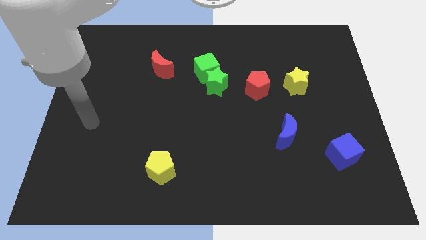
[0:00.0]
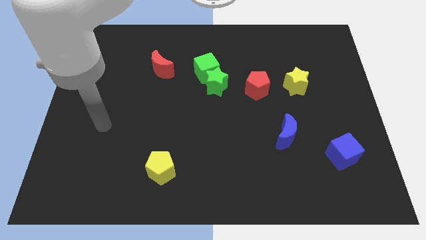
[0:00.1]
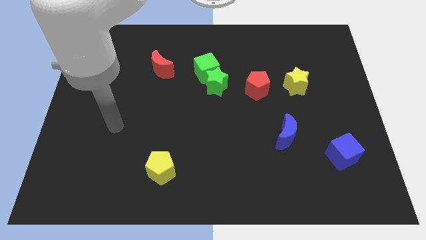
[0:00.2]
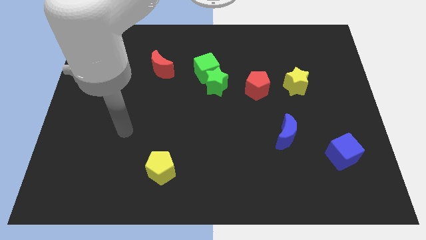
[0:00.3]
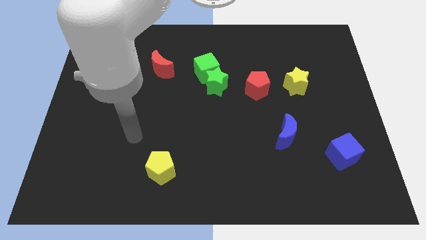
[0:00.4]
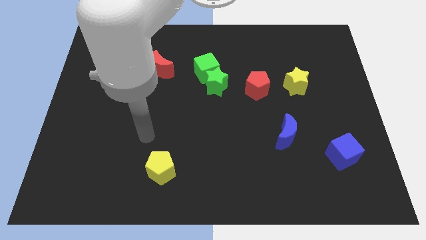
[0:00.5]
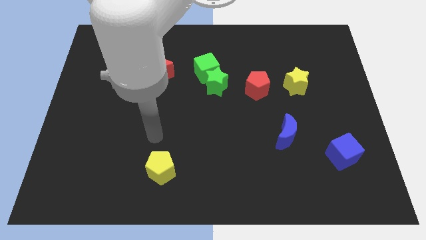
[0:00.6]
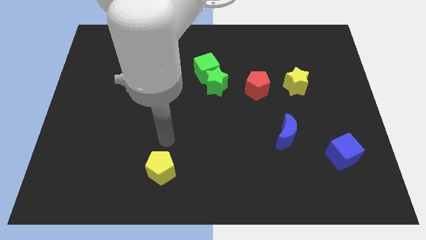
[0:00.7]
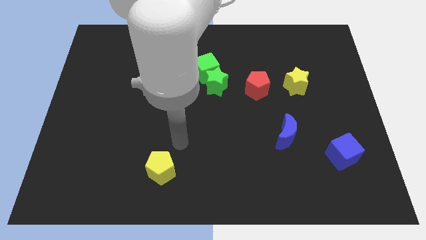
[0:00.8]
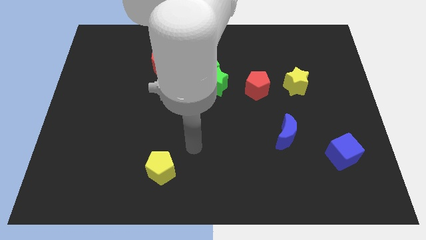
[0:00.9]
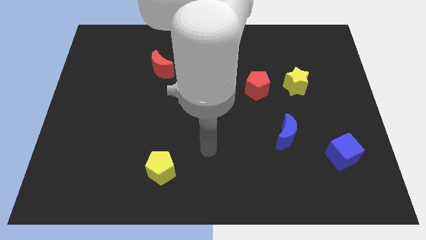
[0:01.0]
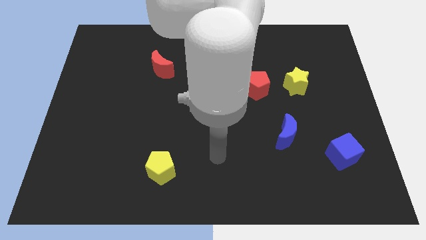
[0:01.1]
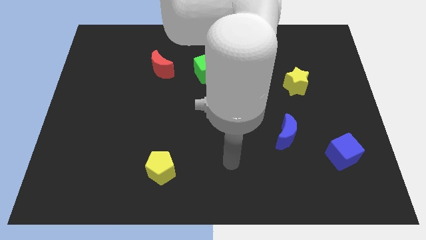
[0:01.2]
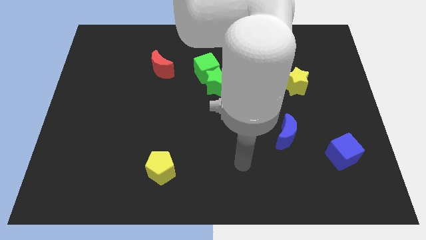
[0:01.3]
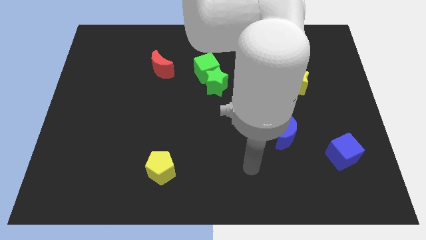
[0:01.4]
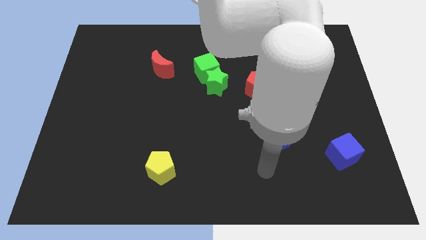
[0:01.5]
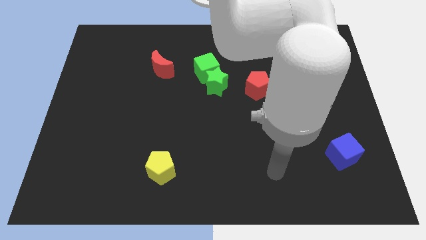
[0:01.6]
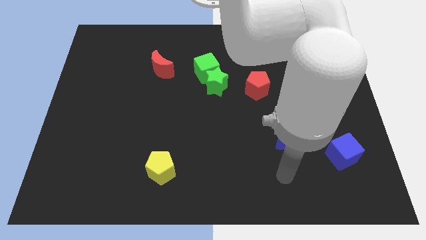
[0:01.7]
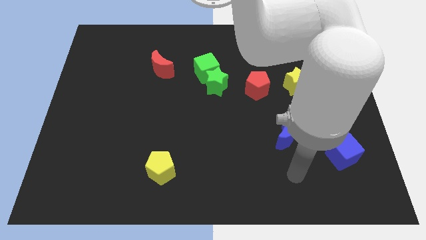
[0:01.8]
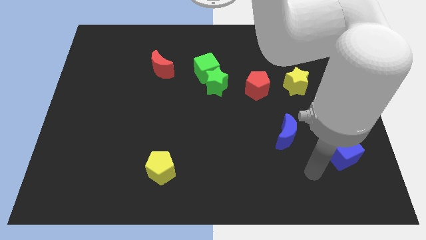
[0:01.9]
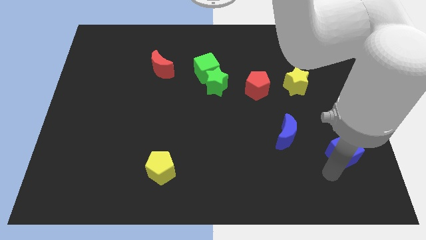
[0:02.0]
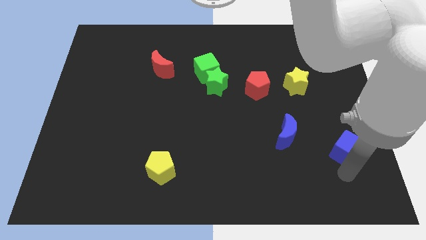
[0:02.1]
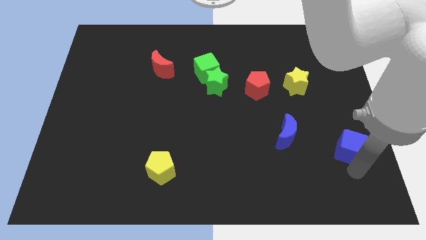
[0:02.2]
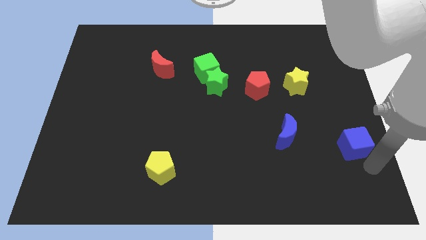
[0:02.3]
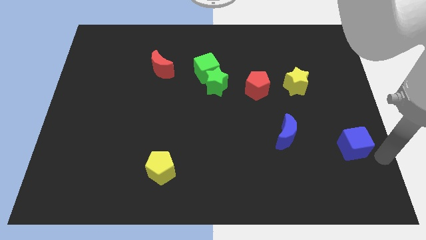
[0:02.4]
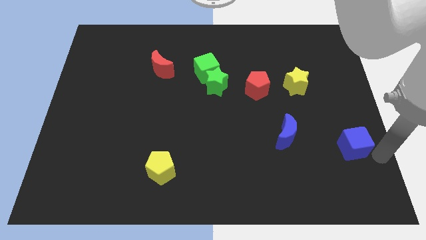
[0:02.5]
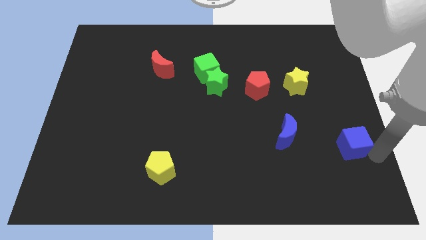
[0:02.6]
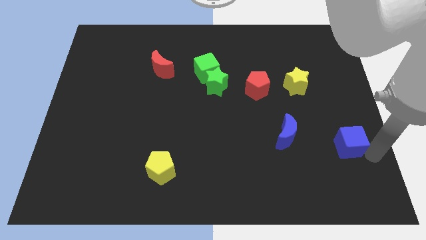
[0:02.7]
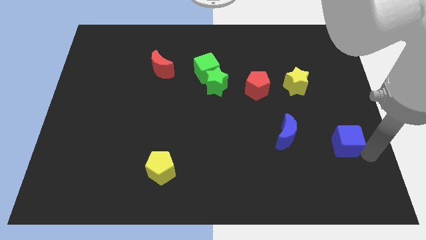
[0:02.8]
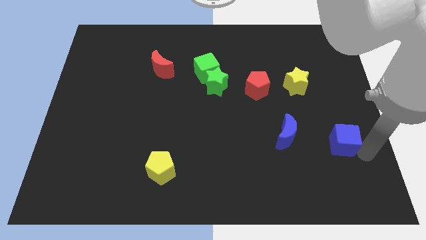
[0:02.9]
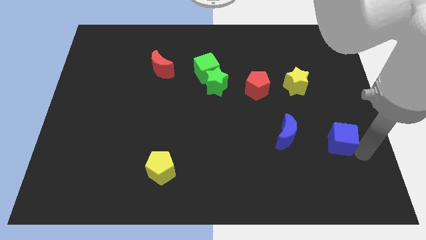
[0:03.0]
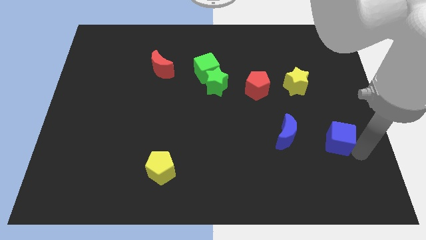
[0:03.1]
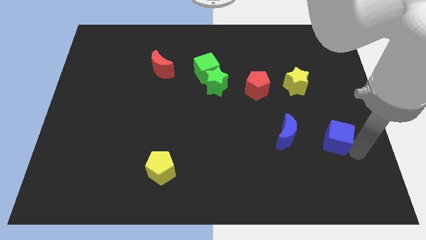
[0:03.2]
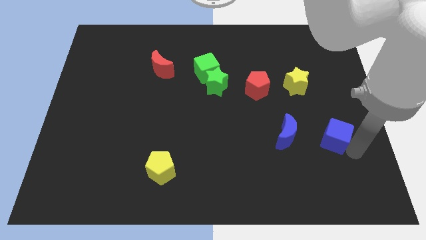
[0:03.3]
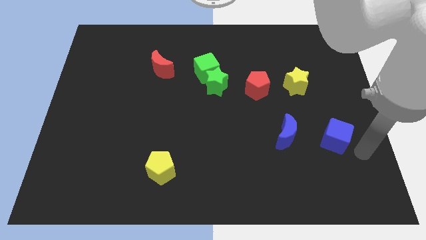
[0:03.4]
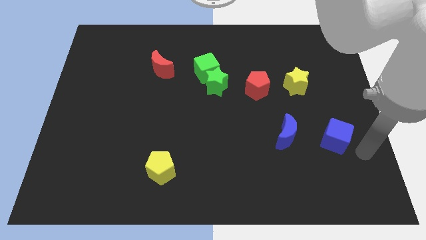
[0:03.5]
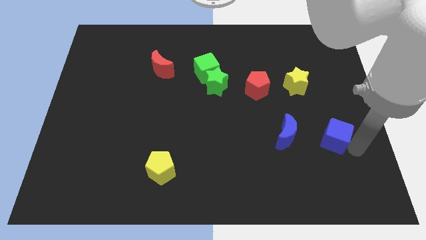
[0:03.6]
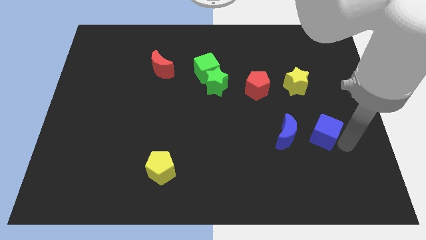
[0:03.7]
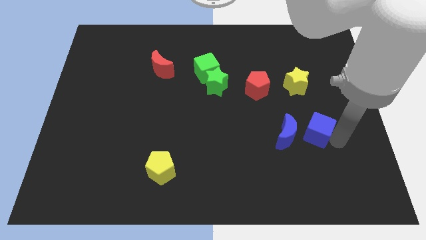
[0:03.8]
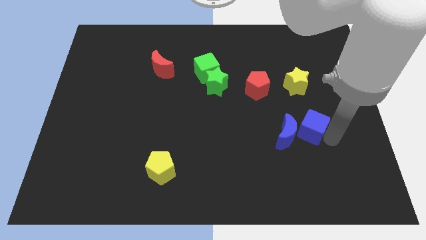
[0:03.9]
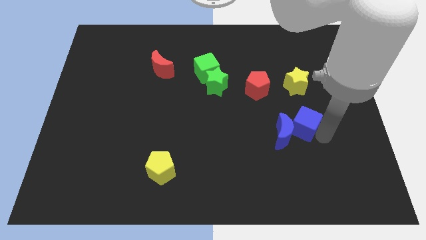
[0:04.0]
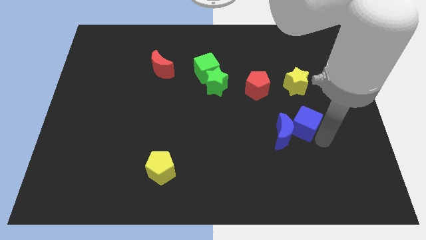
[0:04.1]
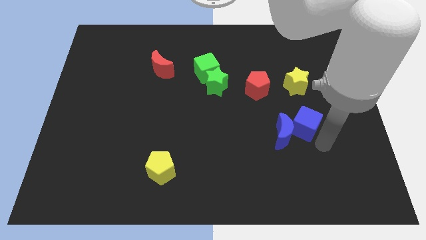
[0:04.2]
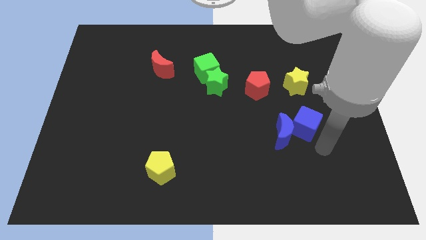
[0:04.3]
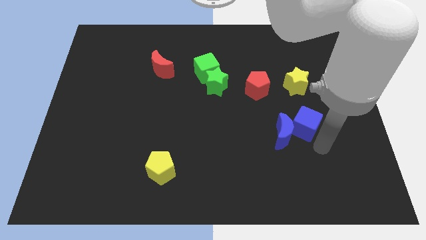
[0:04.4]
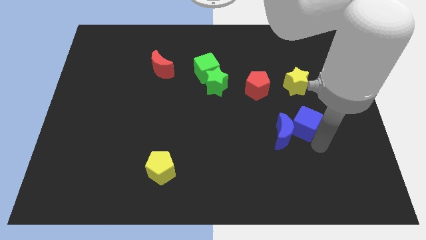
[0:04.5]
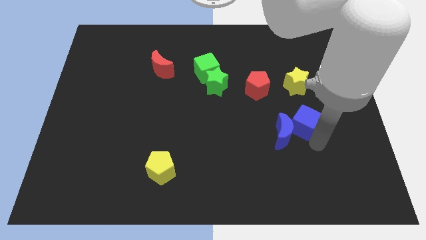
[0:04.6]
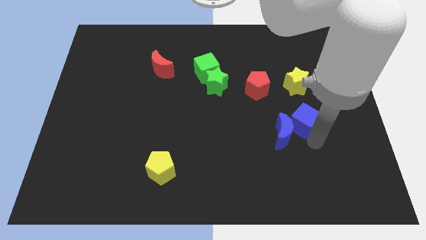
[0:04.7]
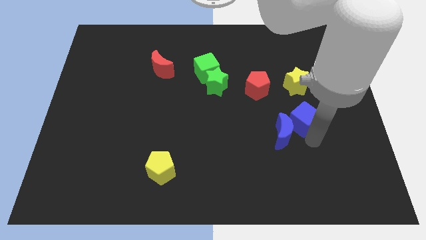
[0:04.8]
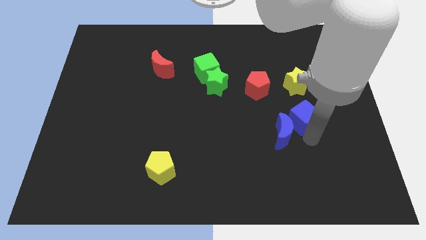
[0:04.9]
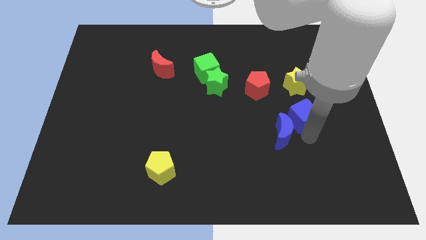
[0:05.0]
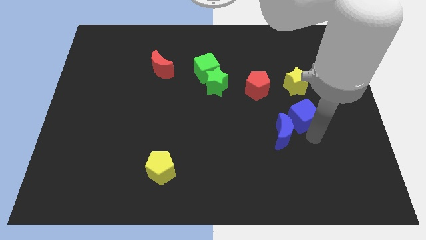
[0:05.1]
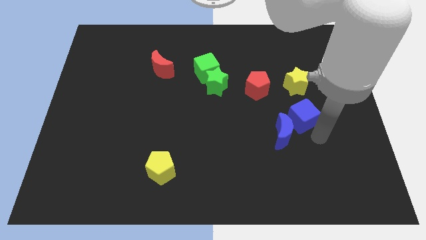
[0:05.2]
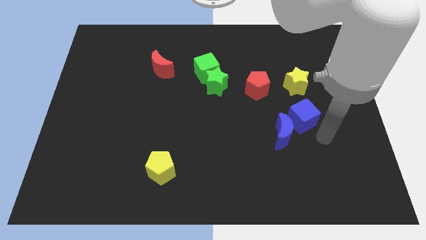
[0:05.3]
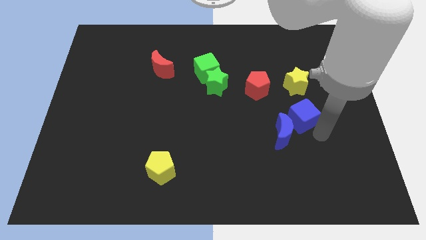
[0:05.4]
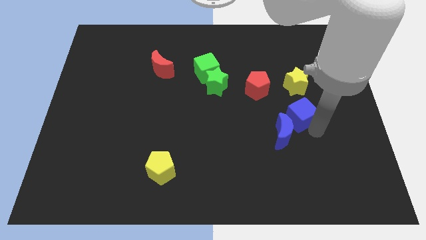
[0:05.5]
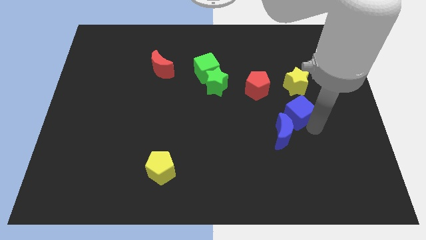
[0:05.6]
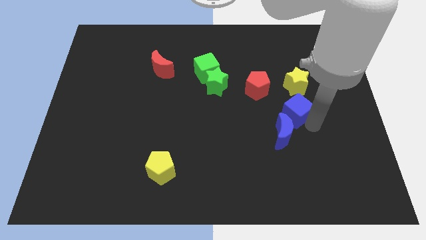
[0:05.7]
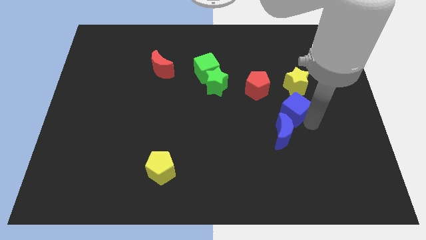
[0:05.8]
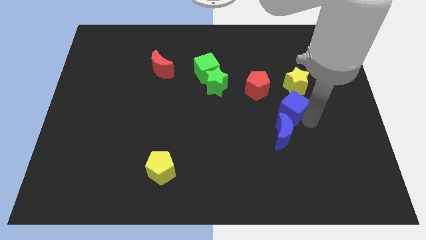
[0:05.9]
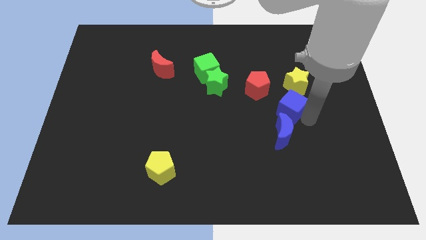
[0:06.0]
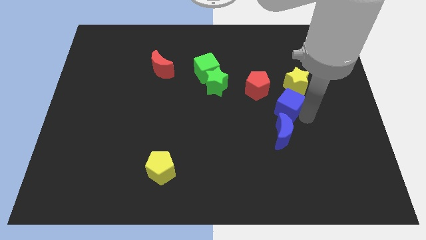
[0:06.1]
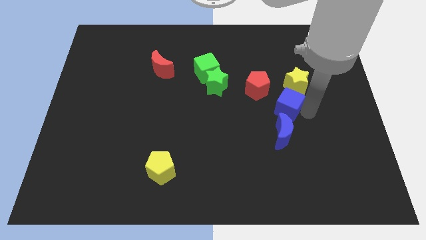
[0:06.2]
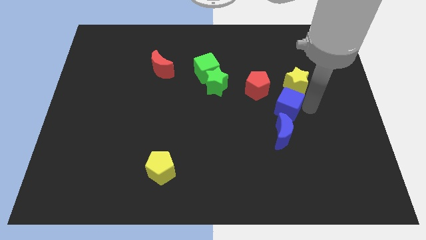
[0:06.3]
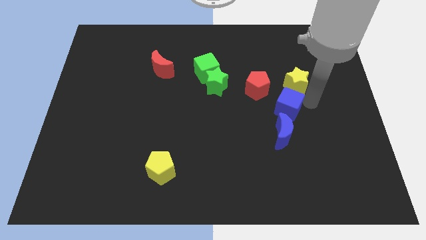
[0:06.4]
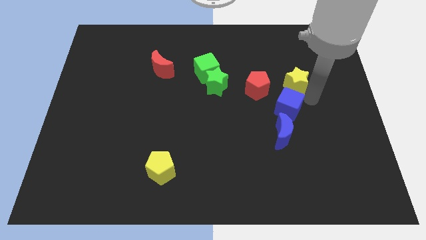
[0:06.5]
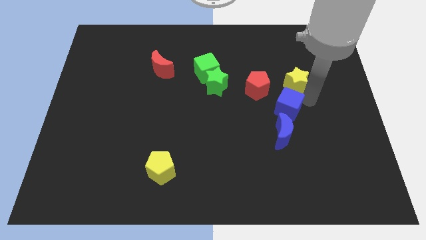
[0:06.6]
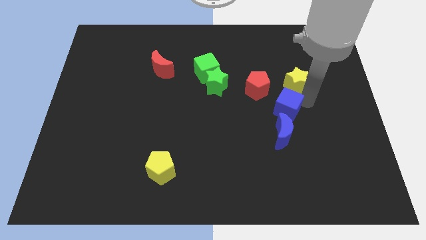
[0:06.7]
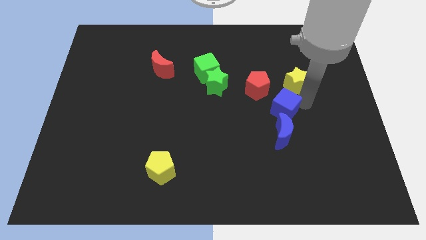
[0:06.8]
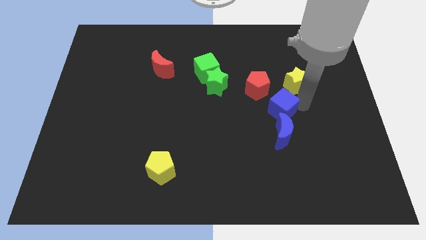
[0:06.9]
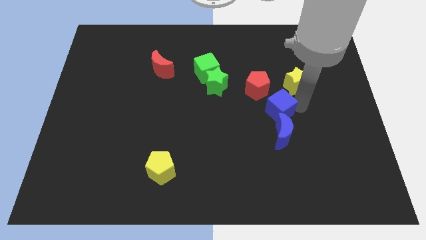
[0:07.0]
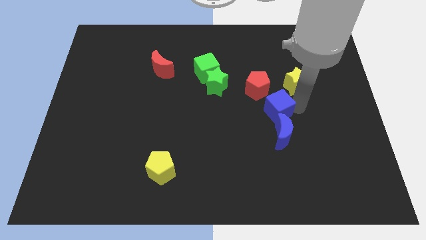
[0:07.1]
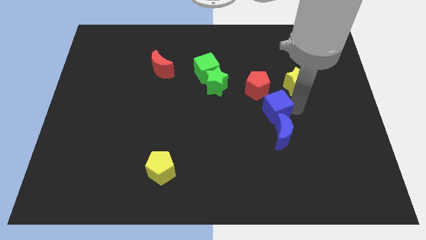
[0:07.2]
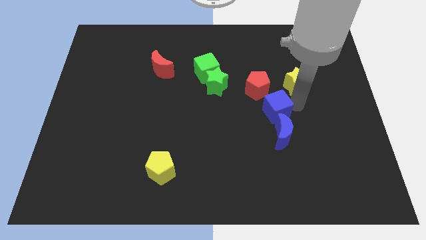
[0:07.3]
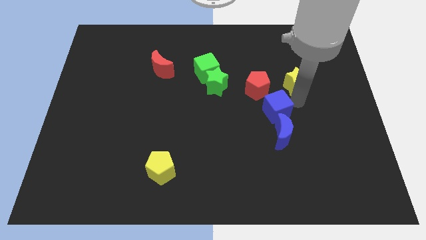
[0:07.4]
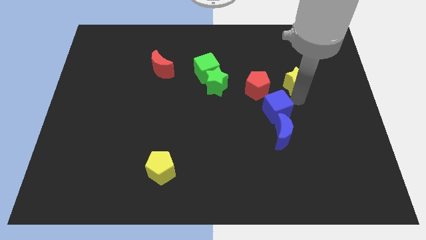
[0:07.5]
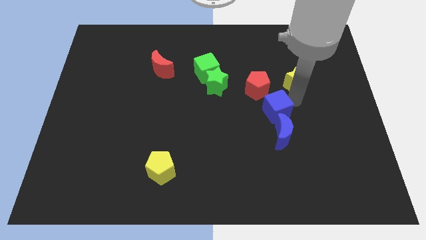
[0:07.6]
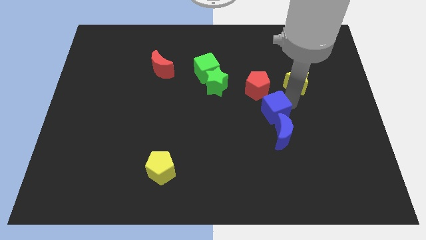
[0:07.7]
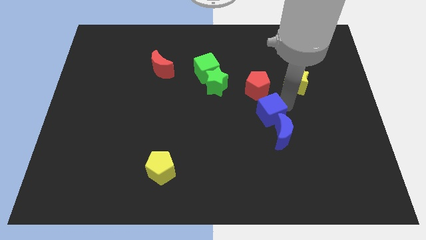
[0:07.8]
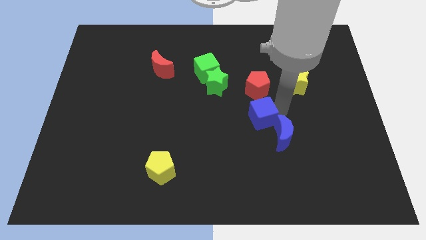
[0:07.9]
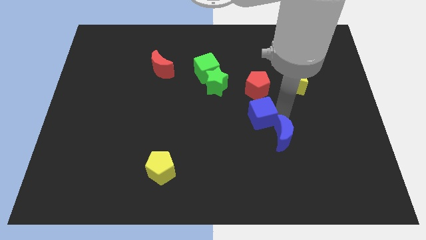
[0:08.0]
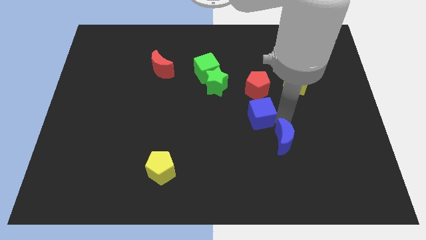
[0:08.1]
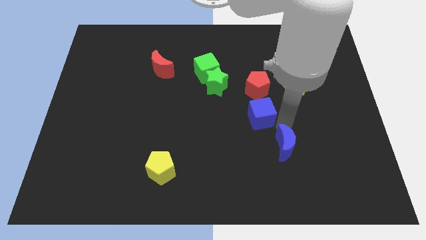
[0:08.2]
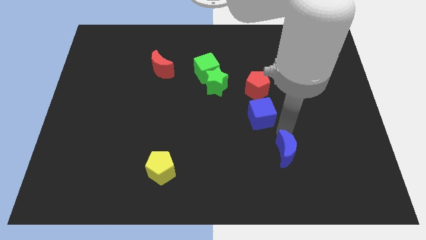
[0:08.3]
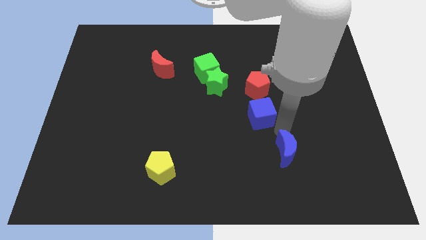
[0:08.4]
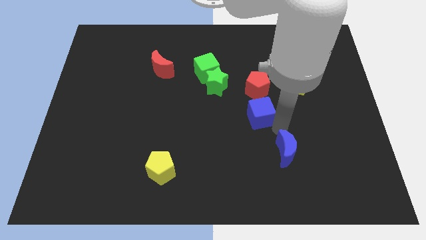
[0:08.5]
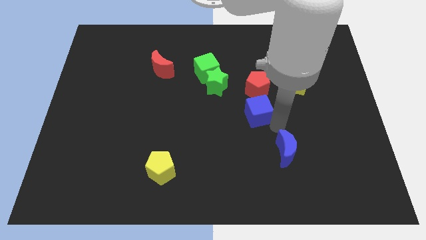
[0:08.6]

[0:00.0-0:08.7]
slide the blue cube to the bottom right side of the green star
